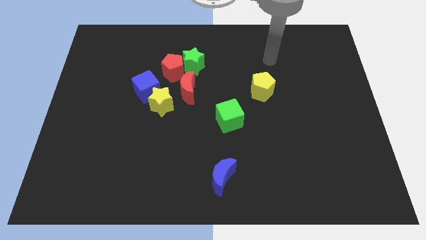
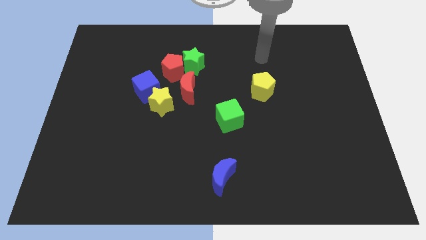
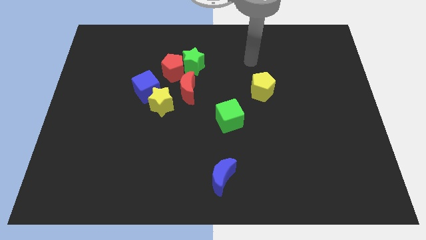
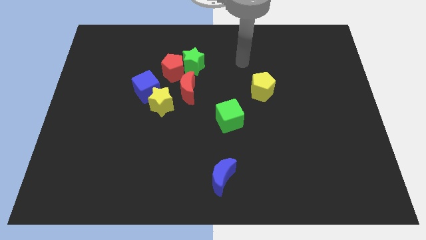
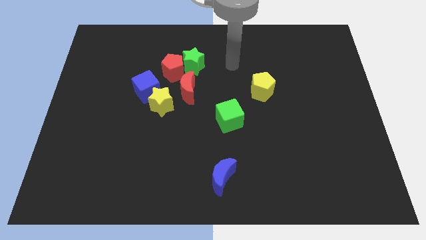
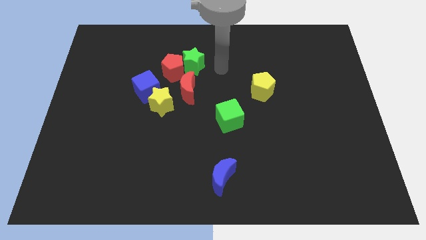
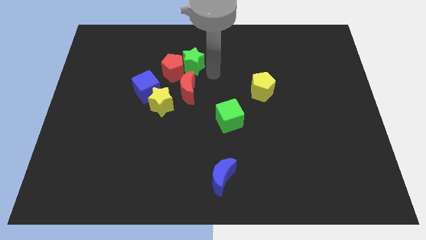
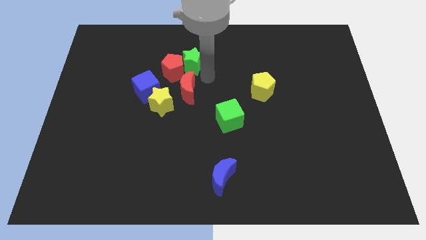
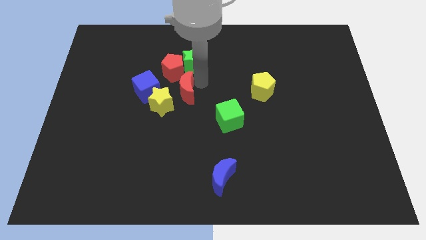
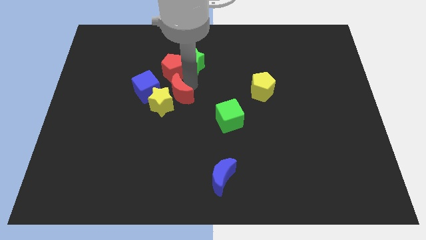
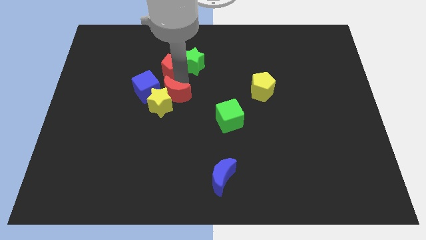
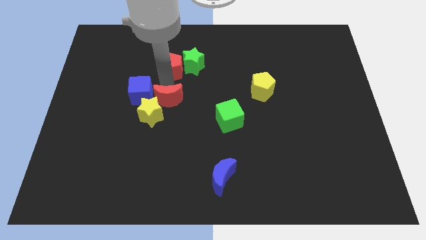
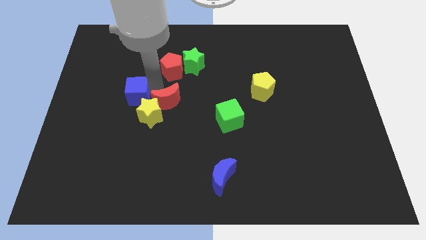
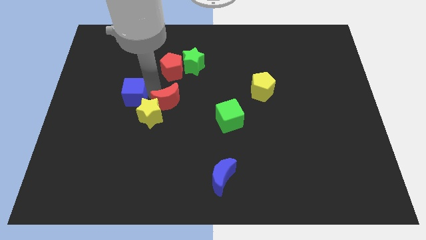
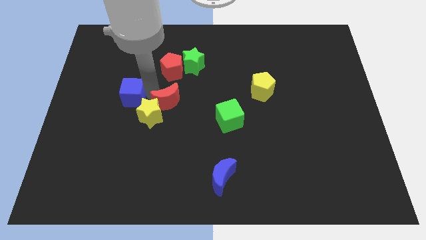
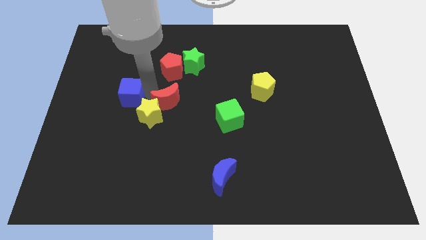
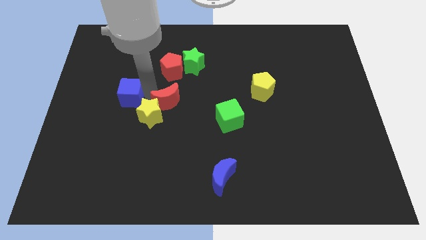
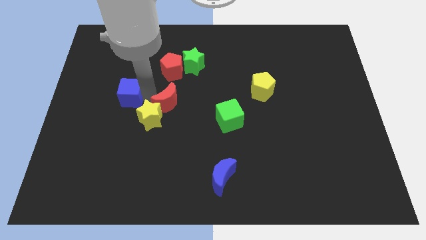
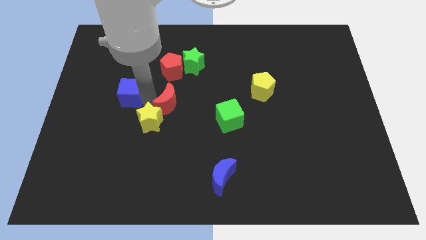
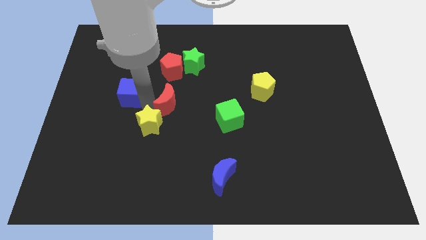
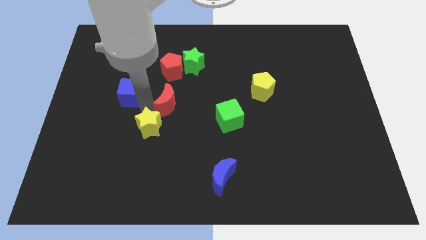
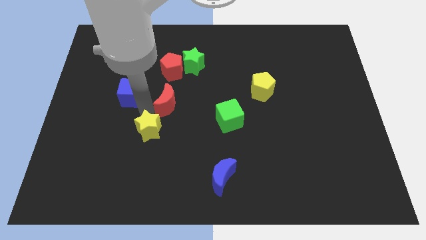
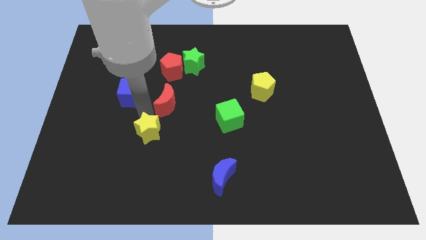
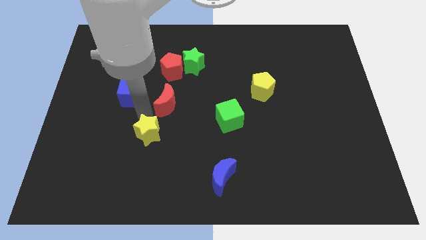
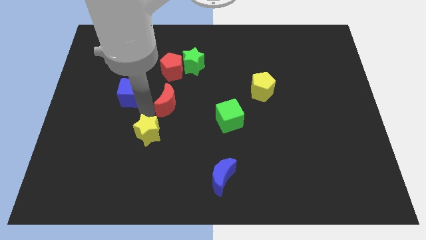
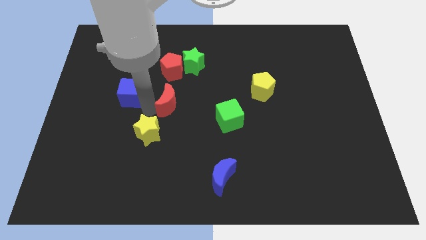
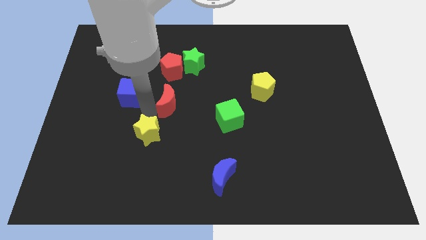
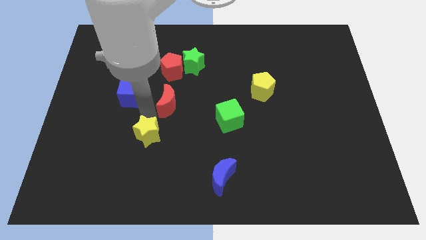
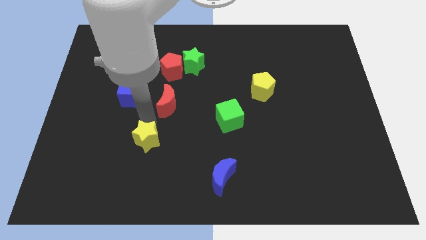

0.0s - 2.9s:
move the yellow star away from the blue cube and red moon

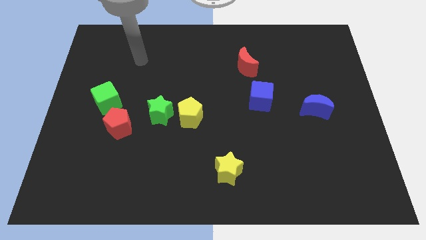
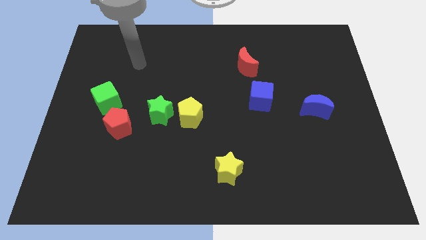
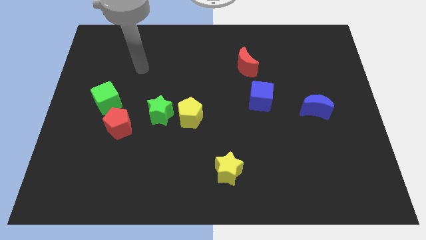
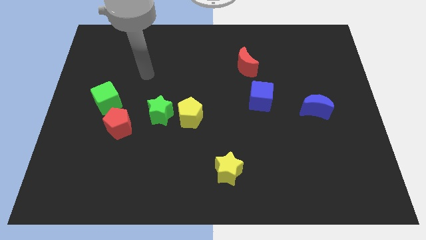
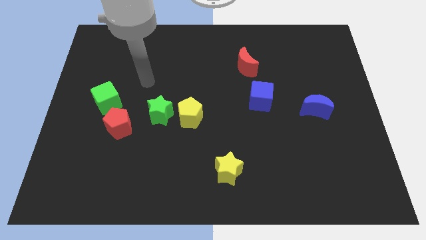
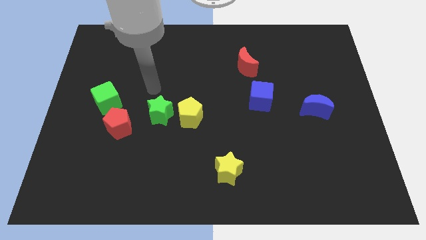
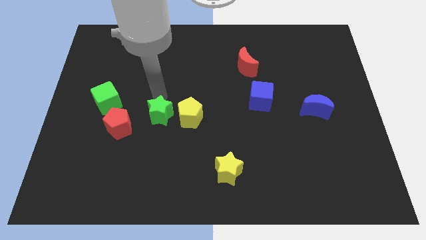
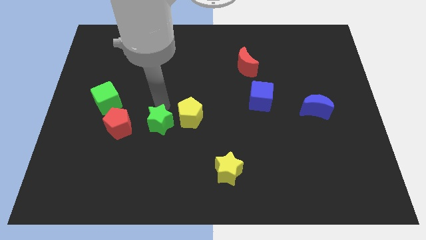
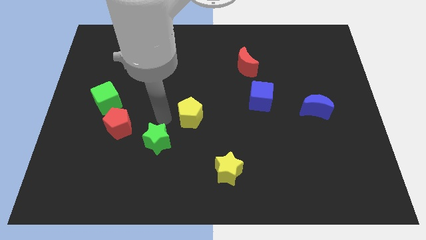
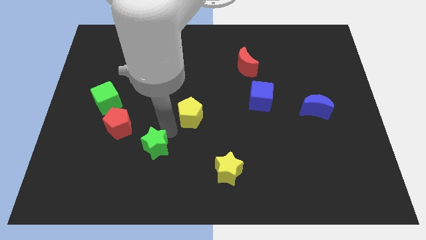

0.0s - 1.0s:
separate the yellow pentagon from the green star

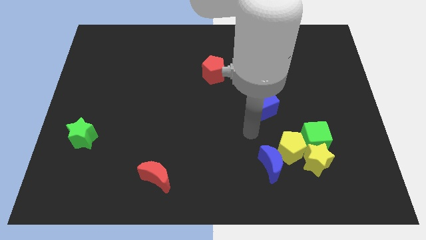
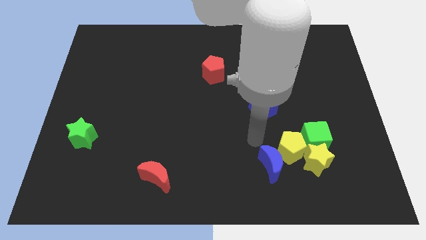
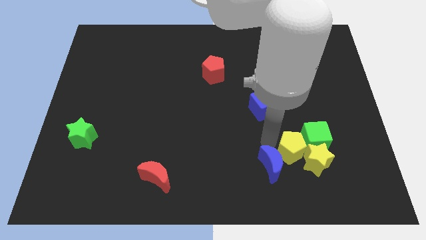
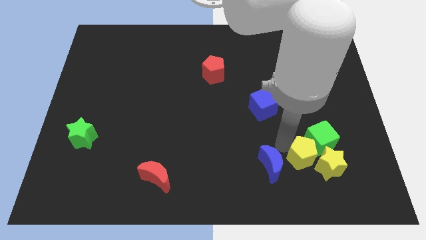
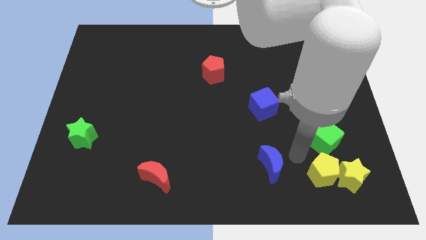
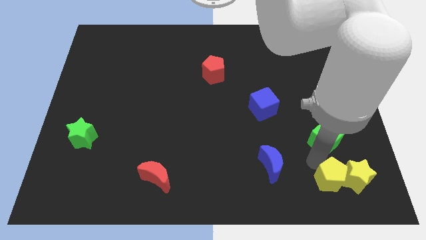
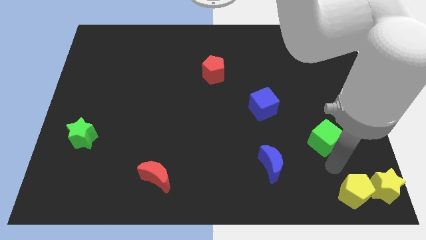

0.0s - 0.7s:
separate the green cube from the yellow star and yellow pentagon

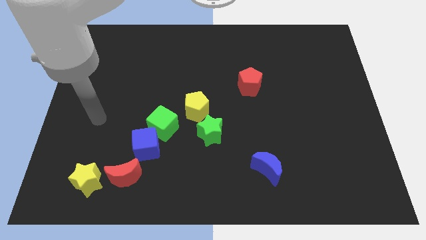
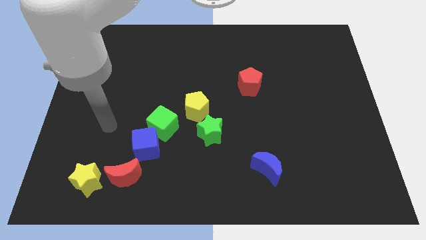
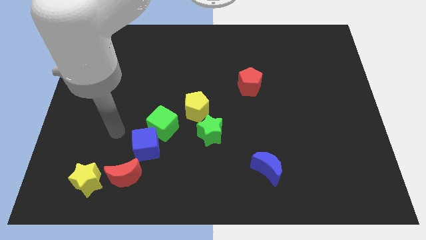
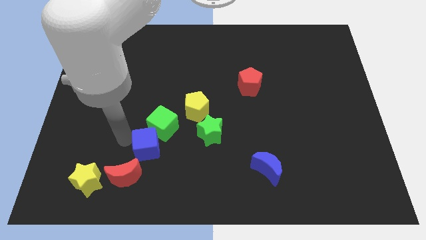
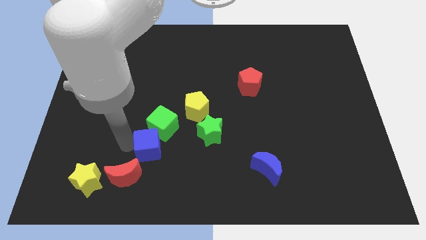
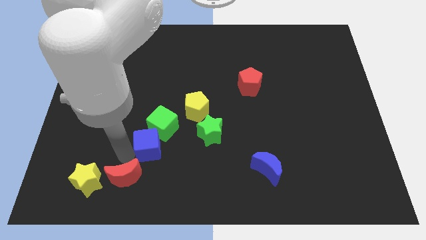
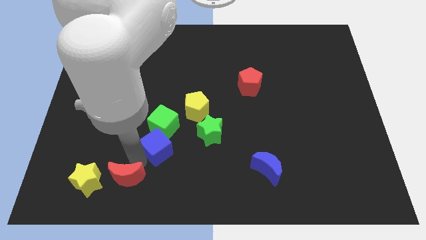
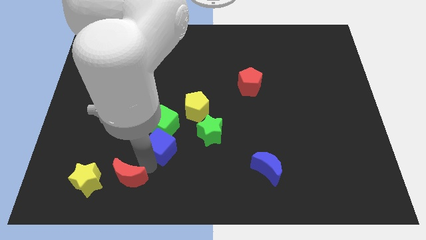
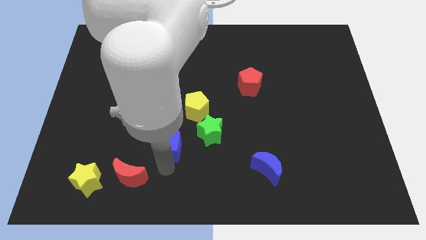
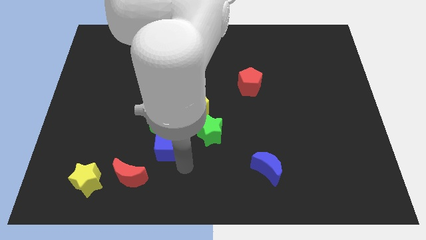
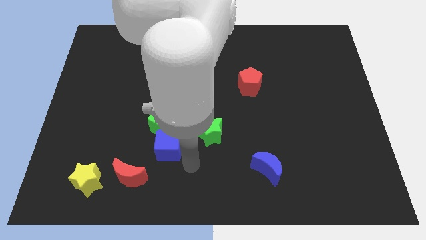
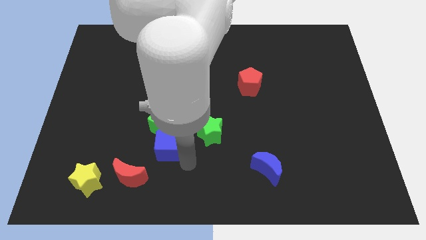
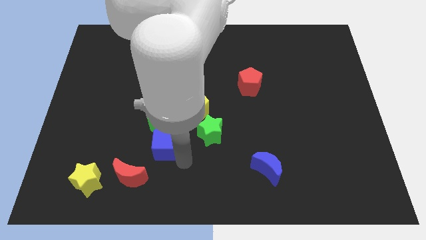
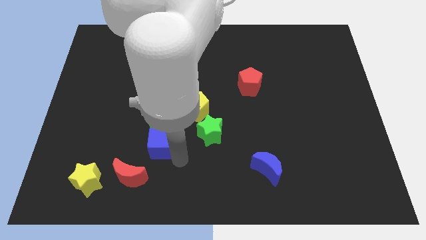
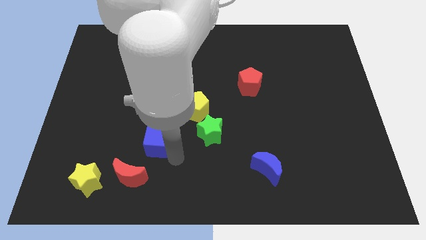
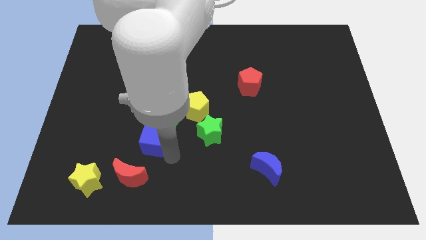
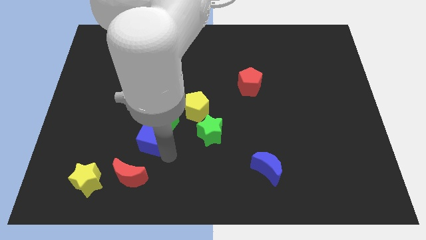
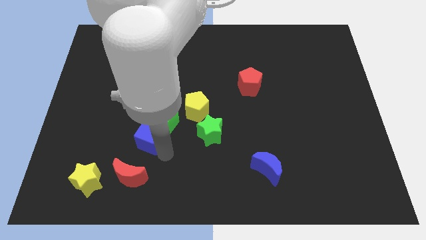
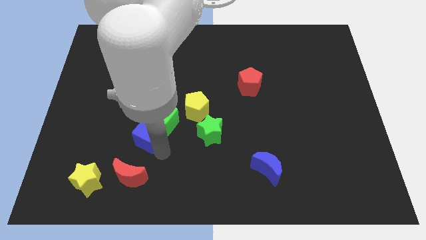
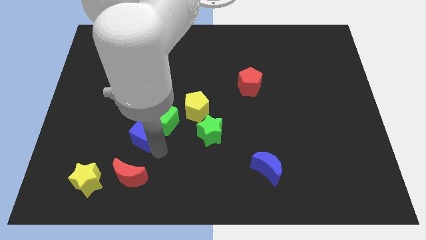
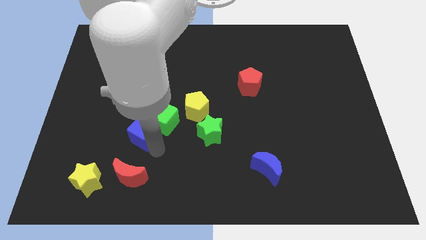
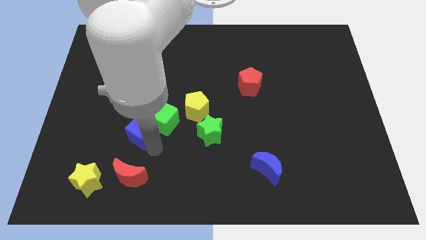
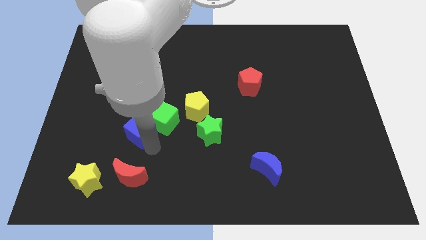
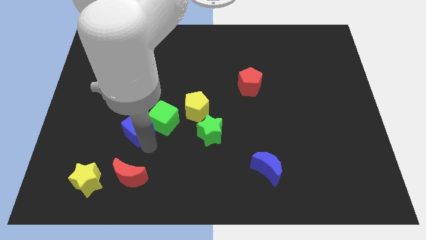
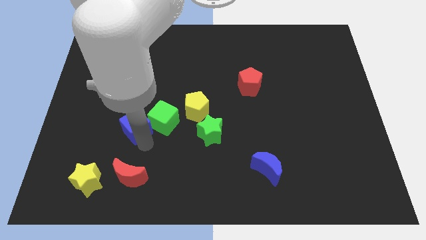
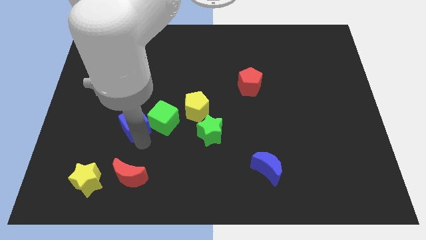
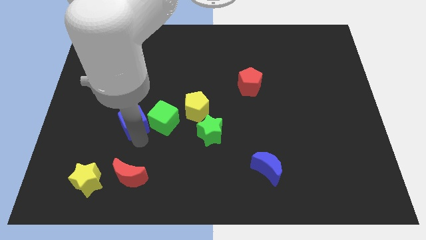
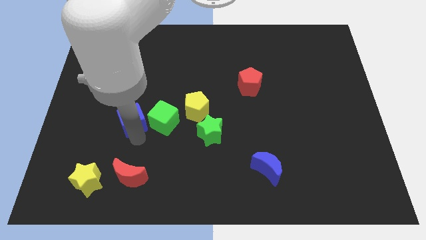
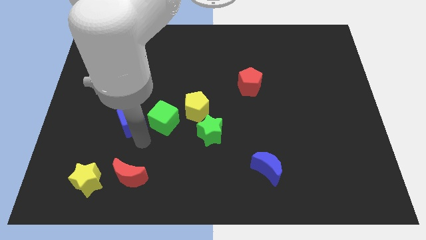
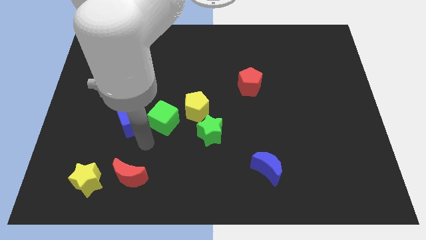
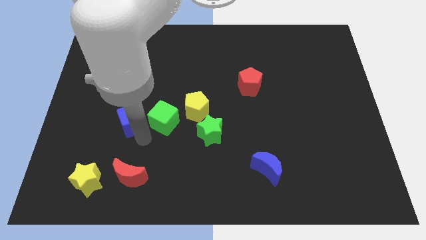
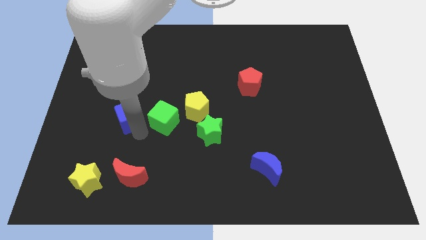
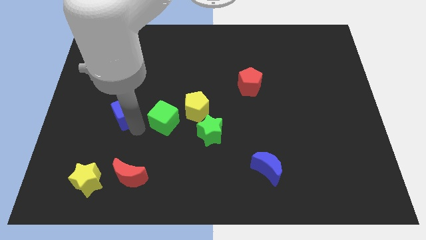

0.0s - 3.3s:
pull the blue cube apart from the green cube and red moon

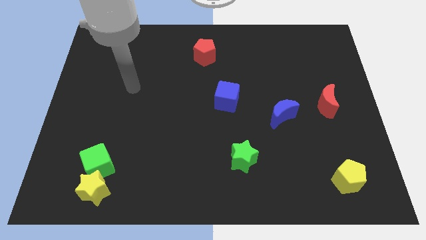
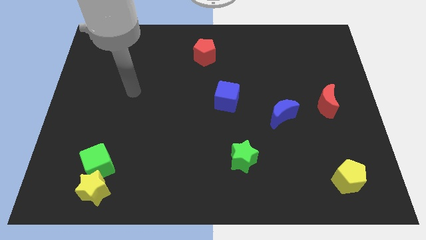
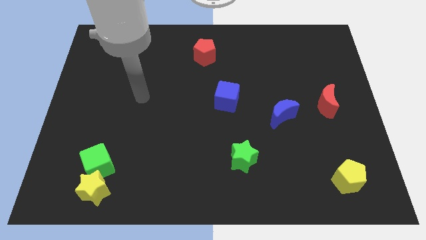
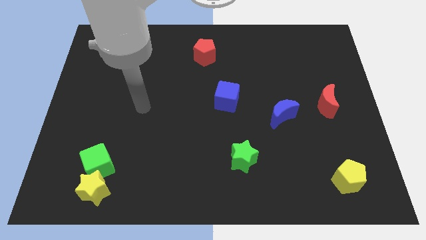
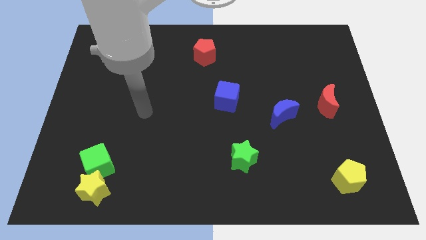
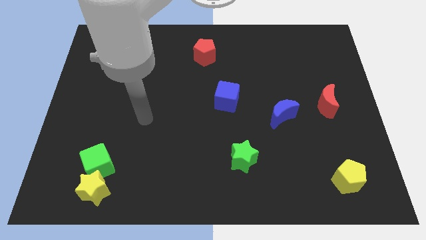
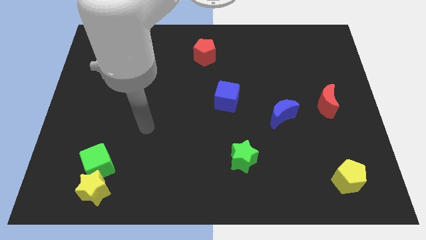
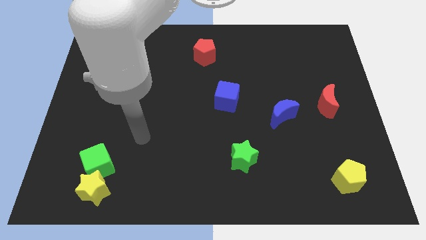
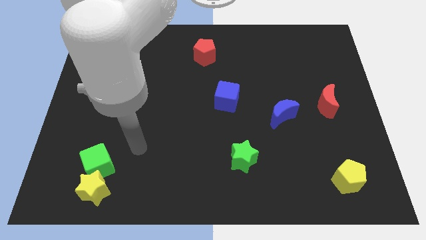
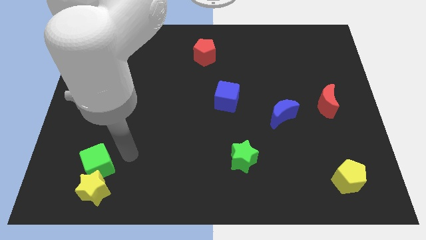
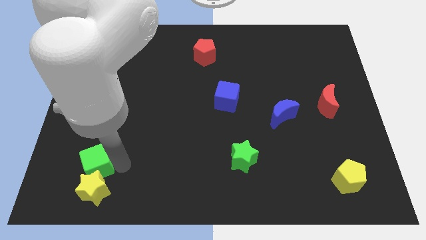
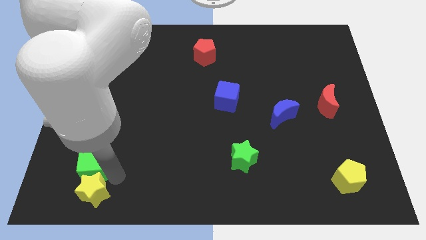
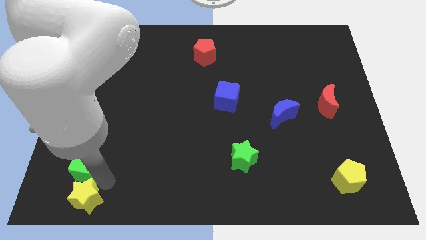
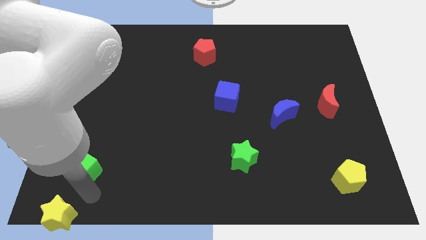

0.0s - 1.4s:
move the green cube away from the yellow star
